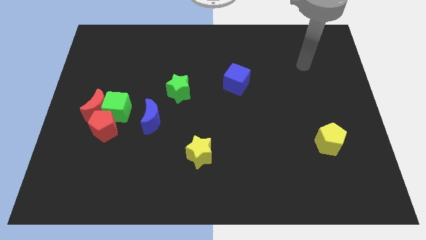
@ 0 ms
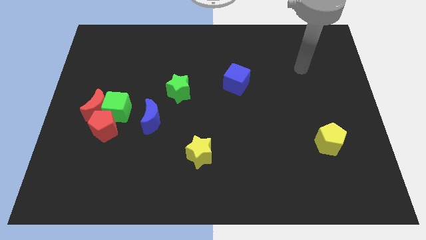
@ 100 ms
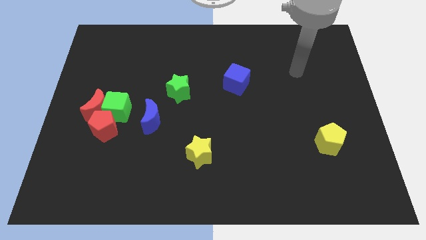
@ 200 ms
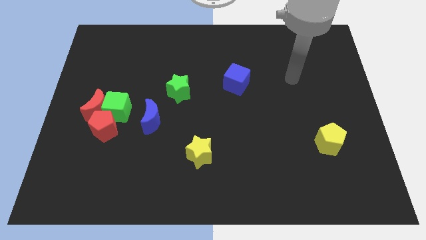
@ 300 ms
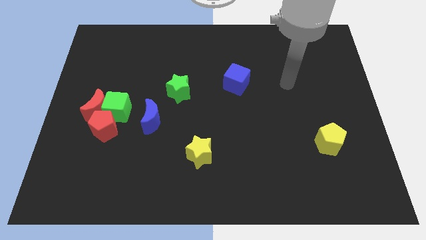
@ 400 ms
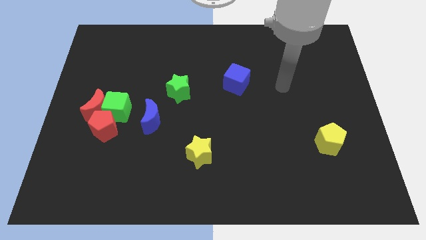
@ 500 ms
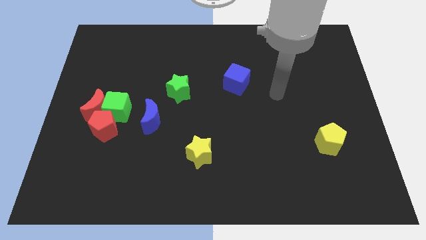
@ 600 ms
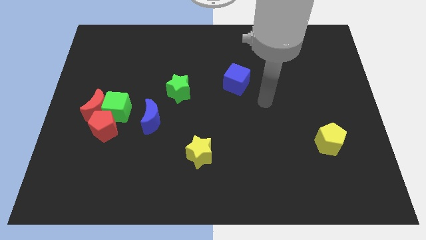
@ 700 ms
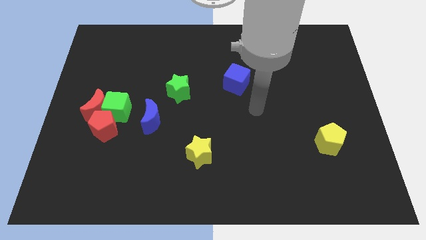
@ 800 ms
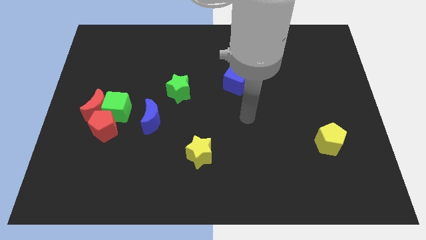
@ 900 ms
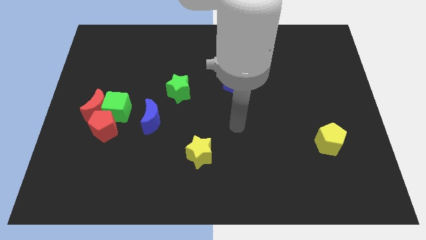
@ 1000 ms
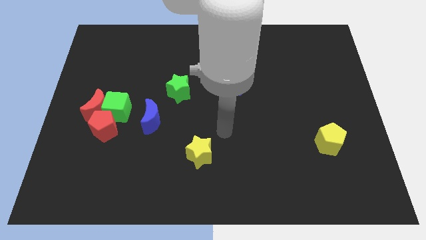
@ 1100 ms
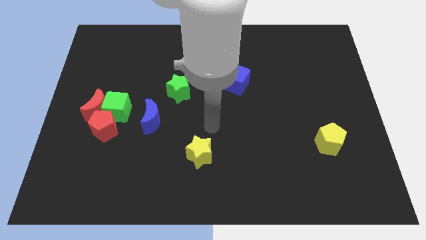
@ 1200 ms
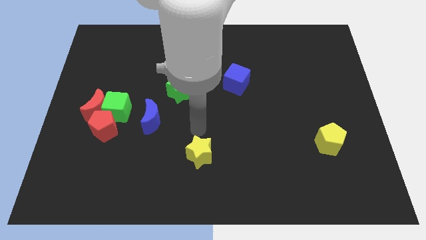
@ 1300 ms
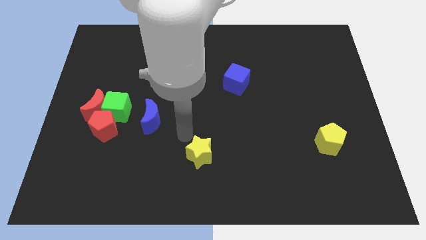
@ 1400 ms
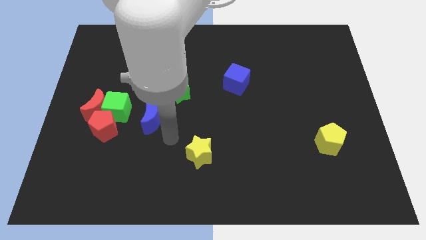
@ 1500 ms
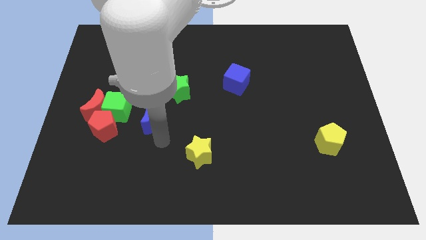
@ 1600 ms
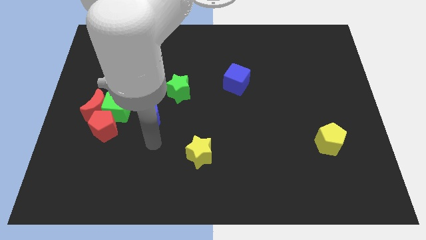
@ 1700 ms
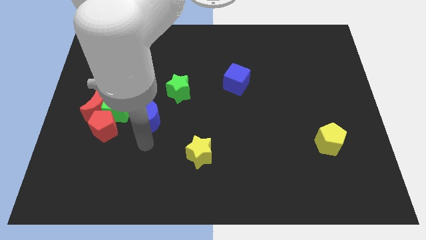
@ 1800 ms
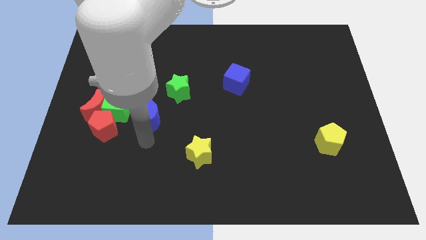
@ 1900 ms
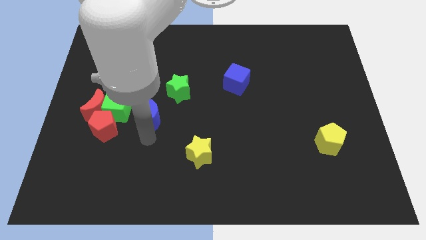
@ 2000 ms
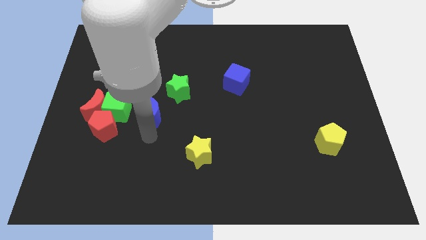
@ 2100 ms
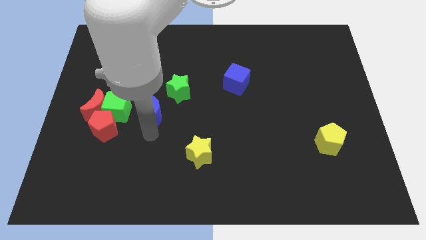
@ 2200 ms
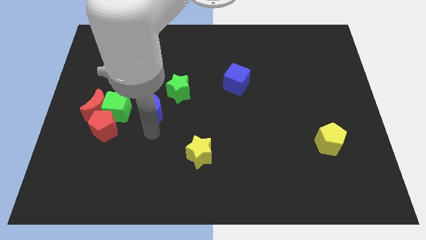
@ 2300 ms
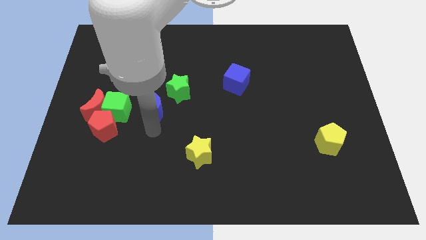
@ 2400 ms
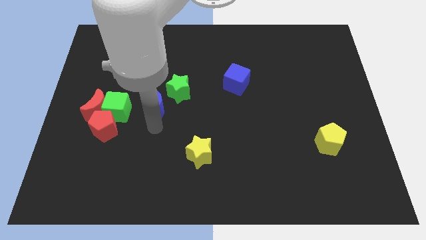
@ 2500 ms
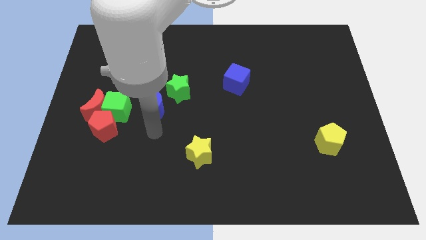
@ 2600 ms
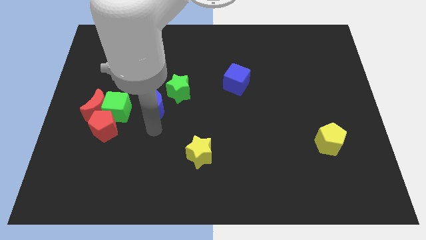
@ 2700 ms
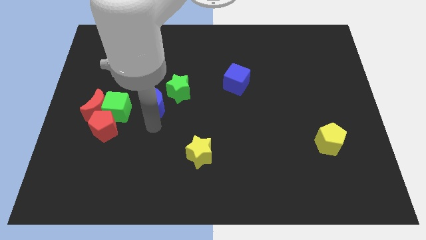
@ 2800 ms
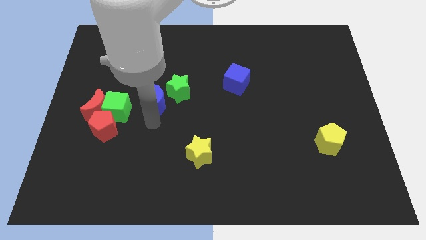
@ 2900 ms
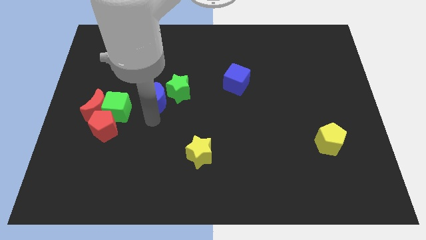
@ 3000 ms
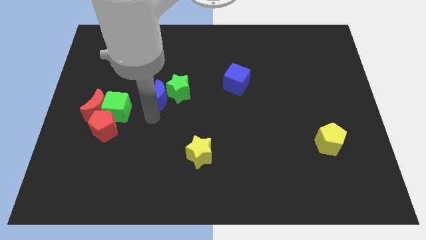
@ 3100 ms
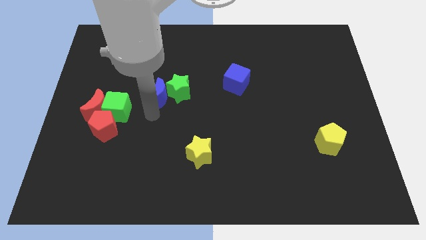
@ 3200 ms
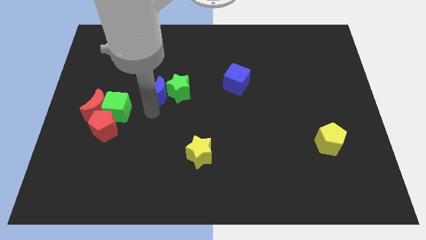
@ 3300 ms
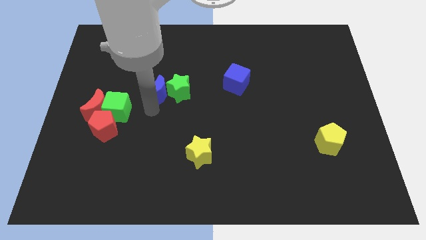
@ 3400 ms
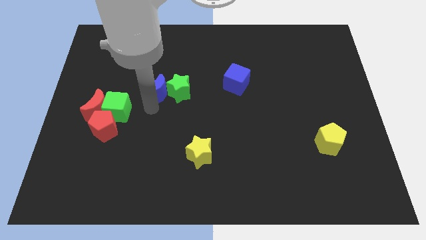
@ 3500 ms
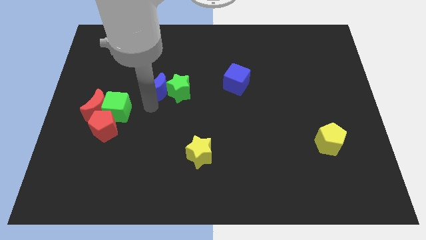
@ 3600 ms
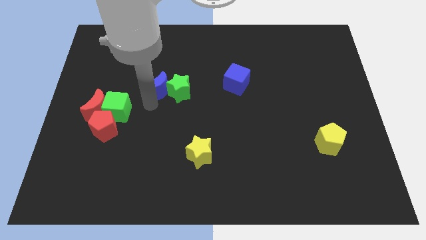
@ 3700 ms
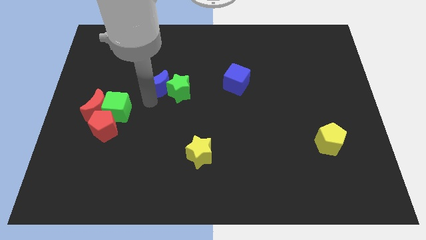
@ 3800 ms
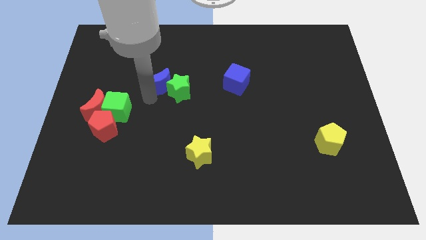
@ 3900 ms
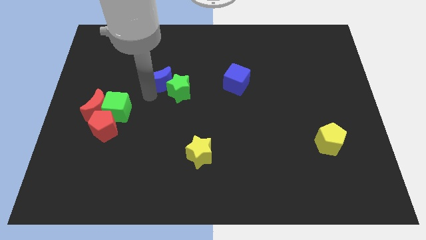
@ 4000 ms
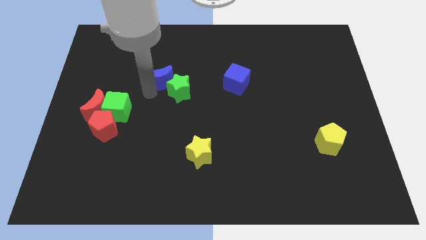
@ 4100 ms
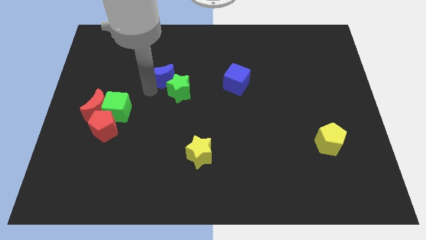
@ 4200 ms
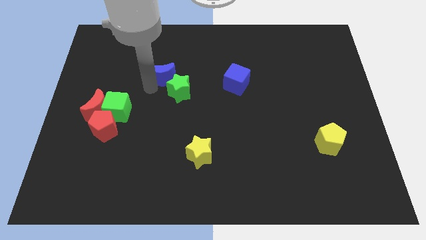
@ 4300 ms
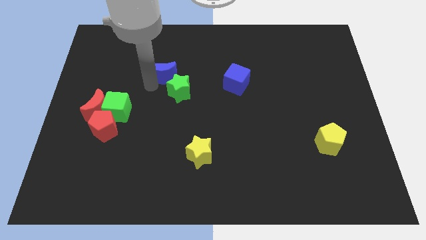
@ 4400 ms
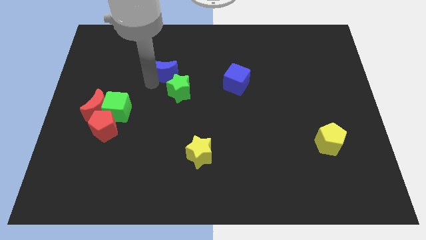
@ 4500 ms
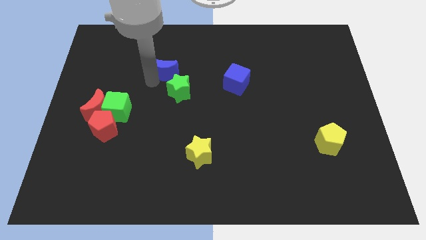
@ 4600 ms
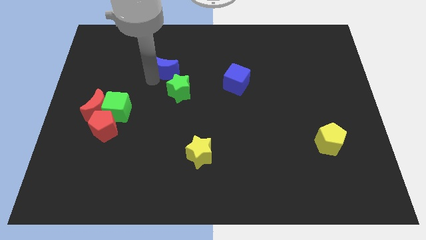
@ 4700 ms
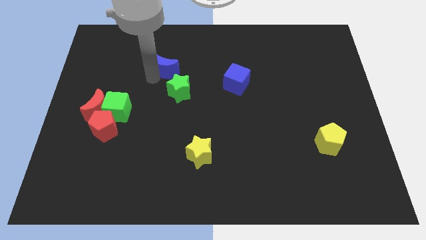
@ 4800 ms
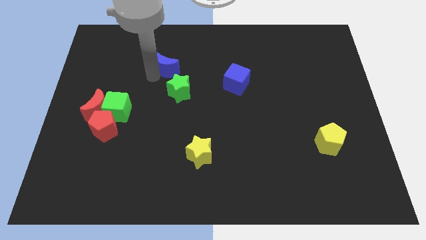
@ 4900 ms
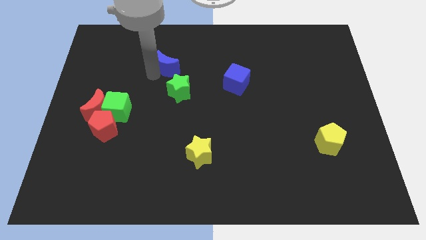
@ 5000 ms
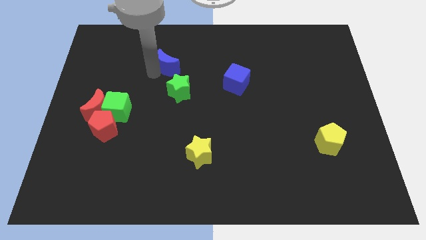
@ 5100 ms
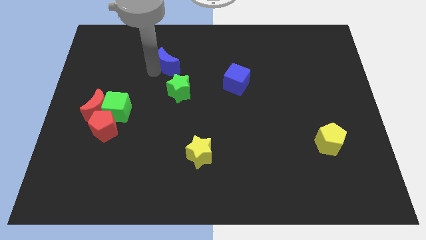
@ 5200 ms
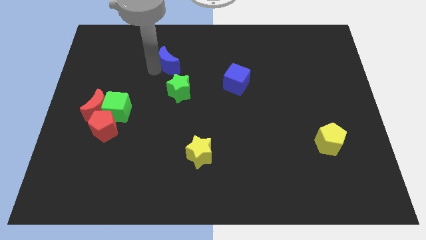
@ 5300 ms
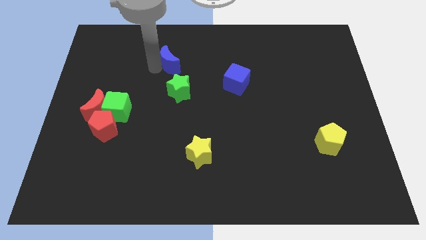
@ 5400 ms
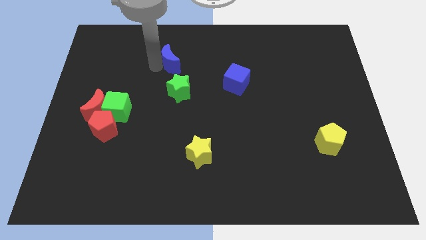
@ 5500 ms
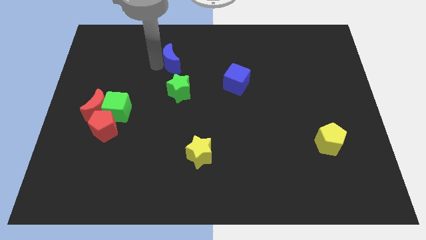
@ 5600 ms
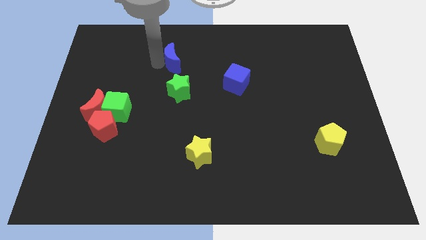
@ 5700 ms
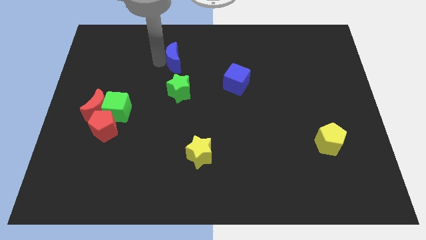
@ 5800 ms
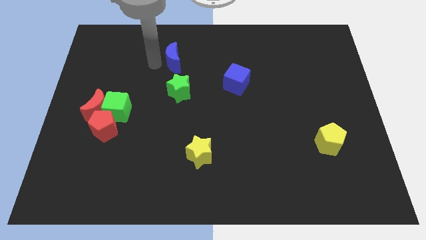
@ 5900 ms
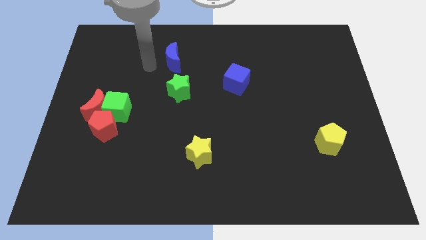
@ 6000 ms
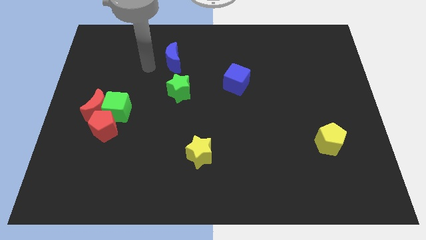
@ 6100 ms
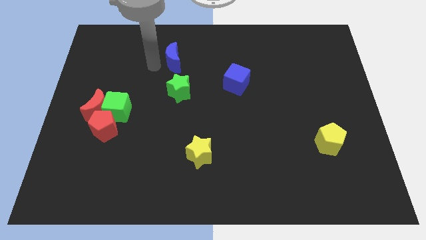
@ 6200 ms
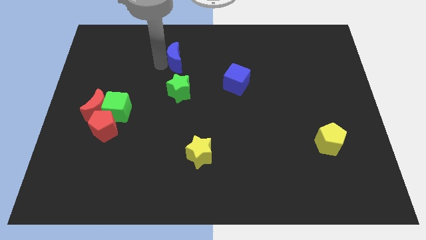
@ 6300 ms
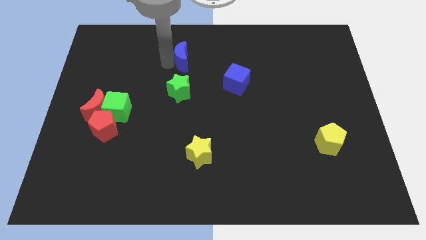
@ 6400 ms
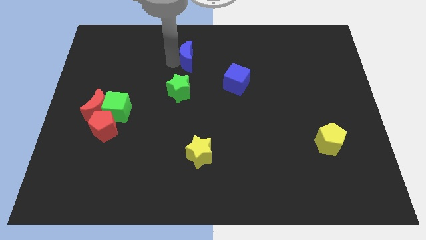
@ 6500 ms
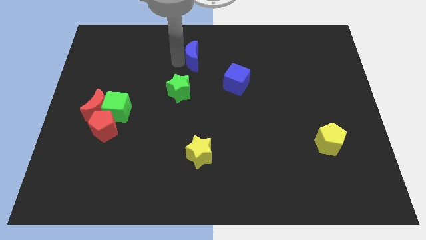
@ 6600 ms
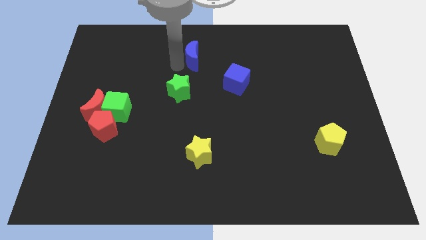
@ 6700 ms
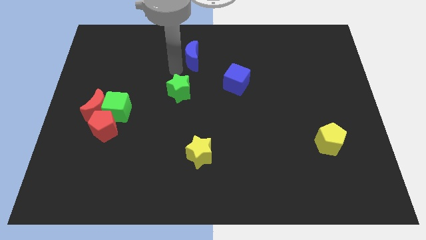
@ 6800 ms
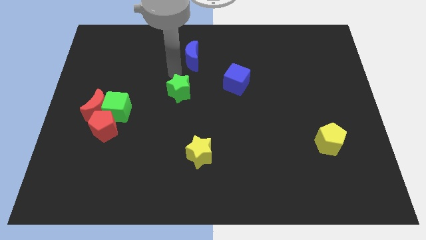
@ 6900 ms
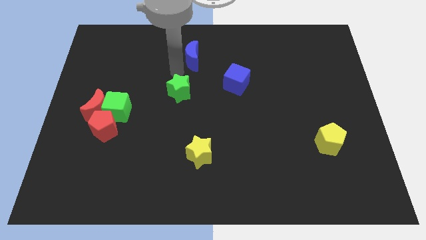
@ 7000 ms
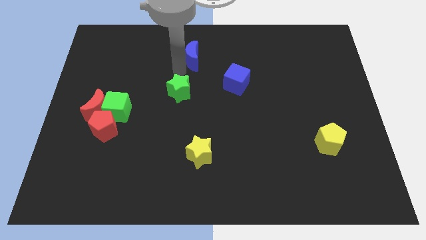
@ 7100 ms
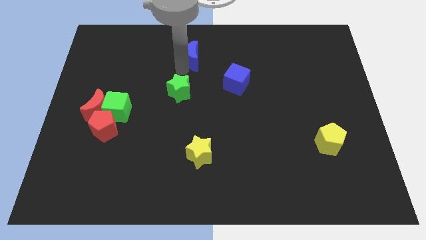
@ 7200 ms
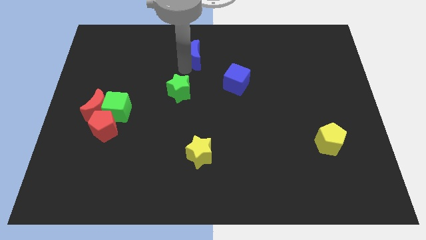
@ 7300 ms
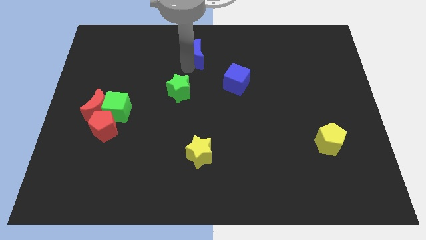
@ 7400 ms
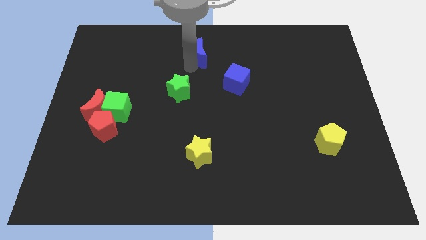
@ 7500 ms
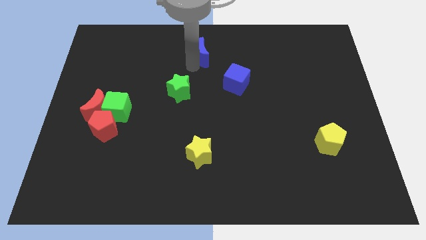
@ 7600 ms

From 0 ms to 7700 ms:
push the blue moon to the top
